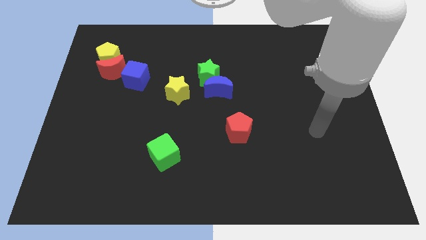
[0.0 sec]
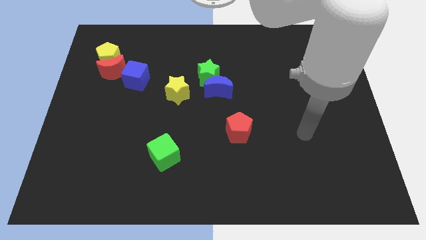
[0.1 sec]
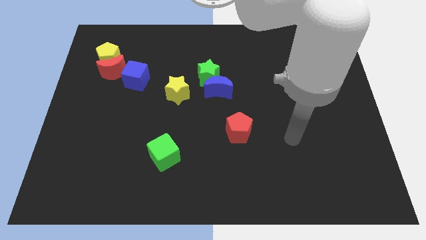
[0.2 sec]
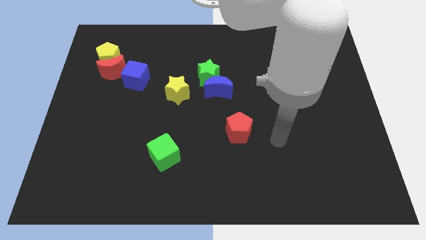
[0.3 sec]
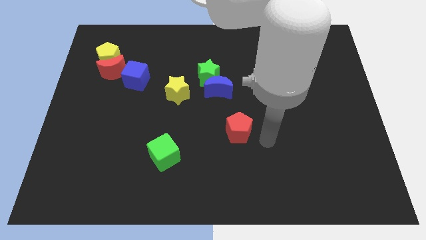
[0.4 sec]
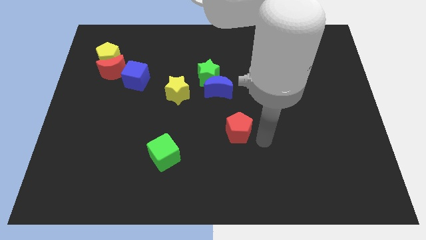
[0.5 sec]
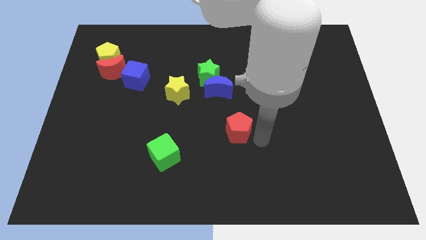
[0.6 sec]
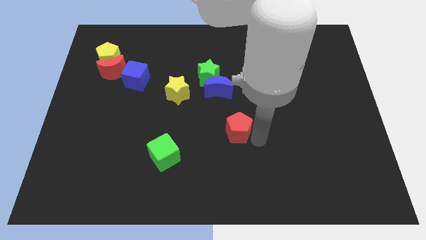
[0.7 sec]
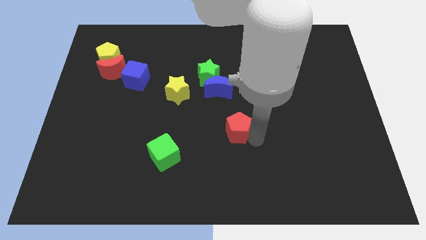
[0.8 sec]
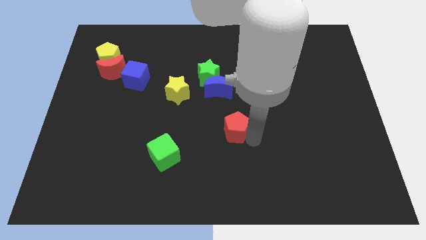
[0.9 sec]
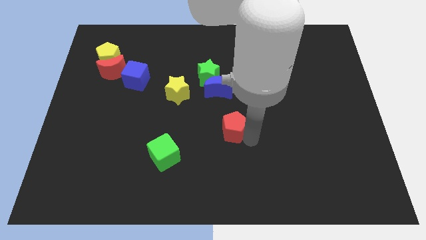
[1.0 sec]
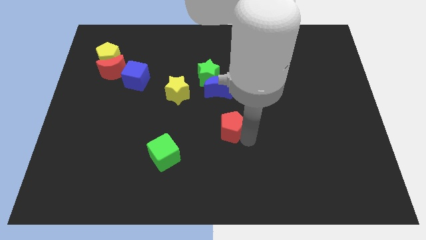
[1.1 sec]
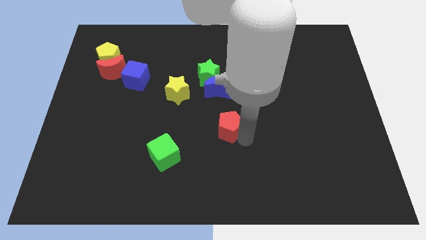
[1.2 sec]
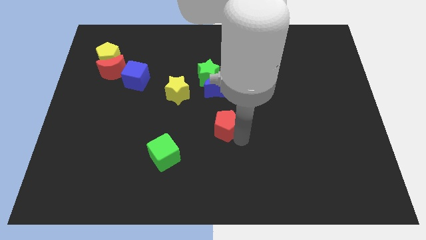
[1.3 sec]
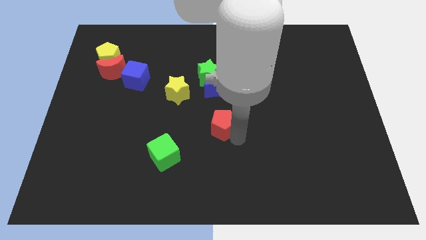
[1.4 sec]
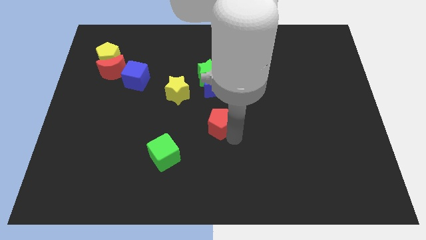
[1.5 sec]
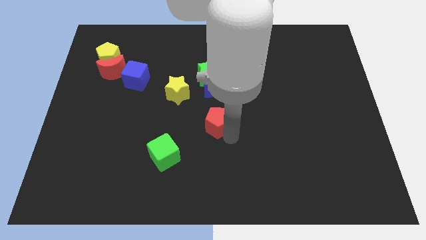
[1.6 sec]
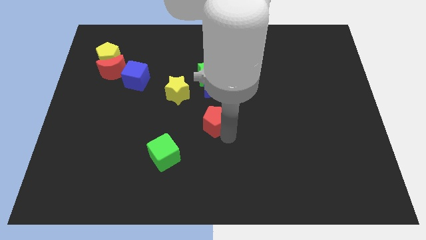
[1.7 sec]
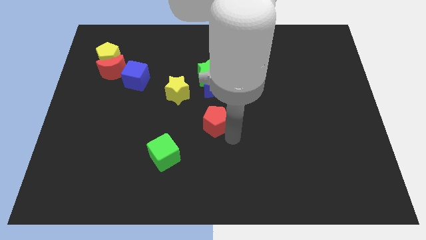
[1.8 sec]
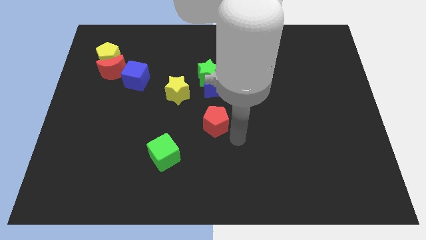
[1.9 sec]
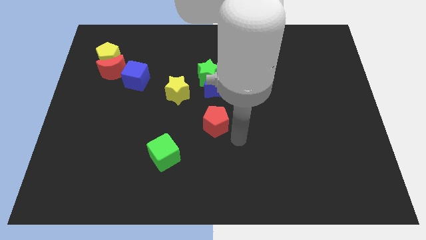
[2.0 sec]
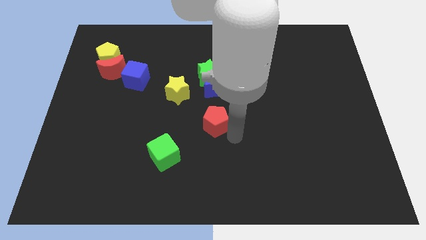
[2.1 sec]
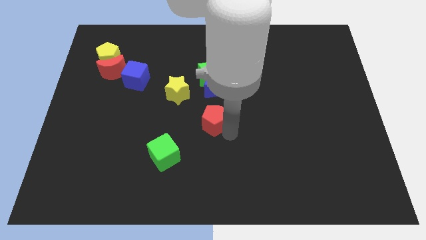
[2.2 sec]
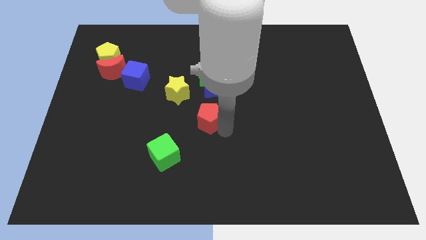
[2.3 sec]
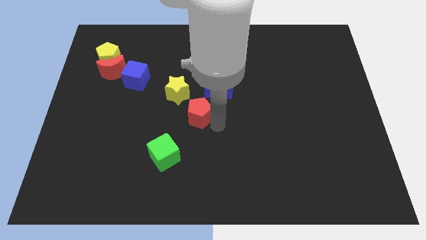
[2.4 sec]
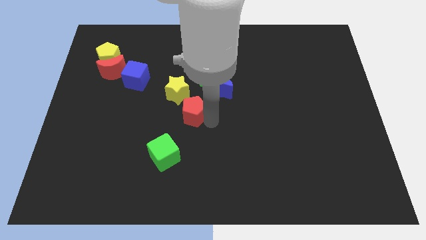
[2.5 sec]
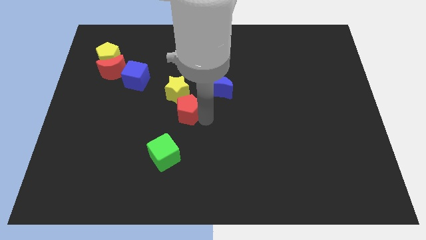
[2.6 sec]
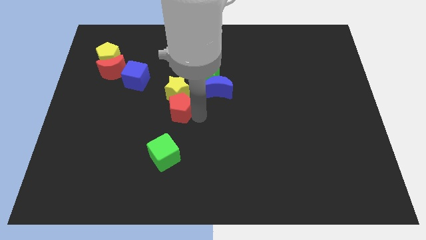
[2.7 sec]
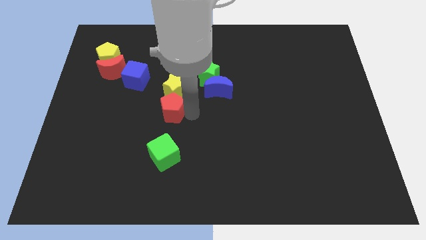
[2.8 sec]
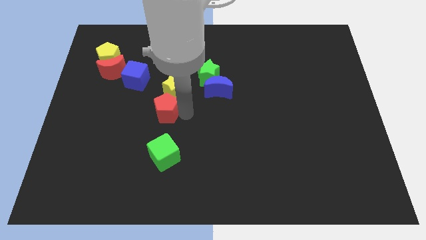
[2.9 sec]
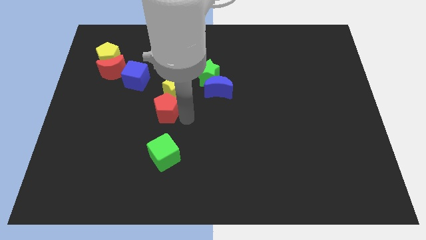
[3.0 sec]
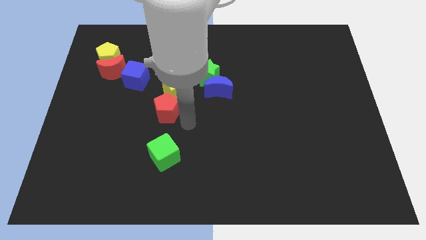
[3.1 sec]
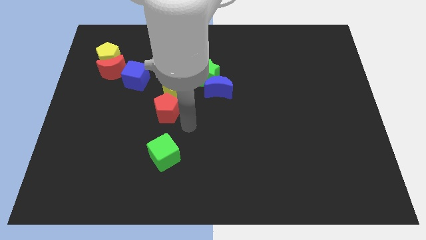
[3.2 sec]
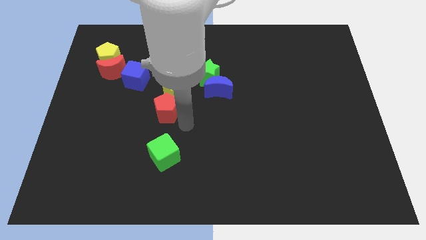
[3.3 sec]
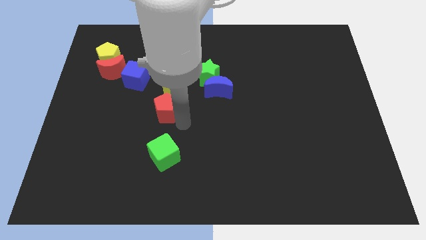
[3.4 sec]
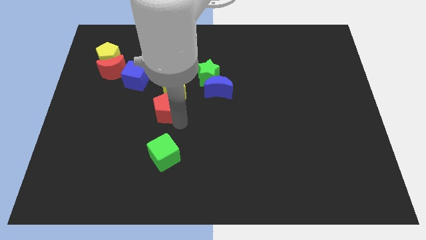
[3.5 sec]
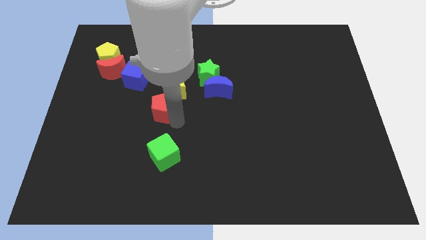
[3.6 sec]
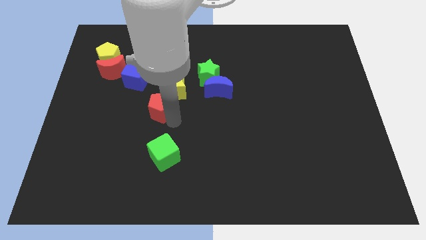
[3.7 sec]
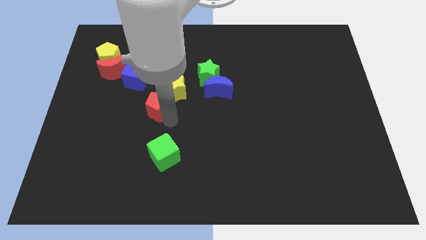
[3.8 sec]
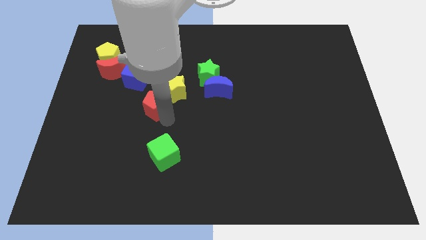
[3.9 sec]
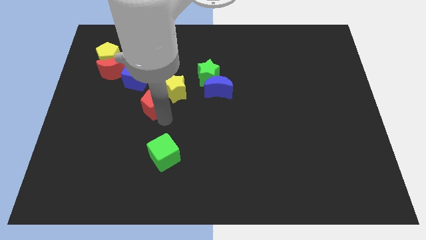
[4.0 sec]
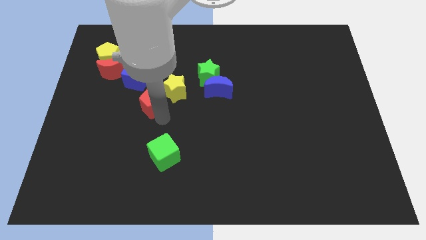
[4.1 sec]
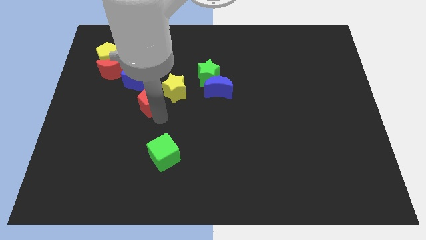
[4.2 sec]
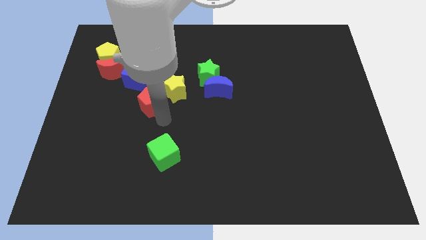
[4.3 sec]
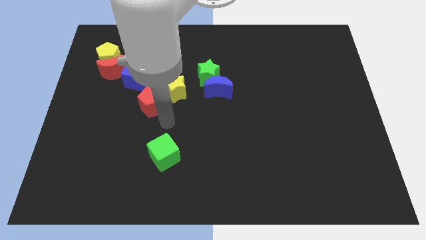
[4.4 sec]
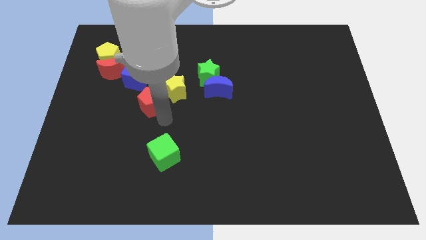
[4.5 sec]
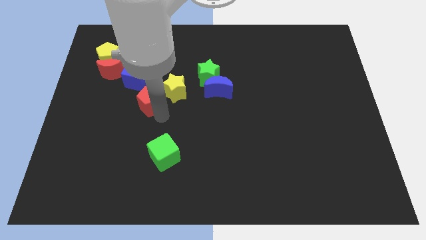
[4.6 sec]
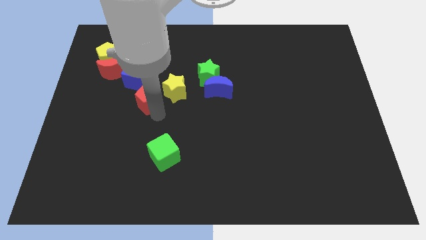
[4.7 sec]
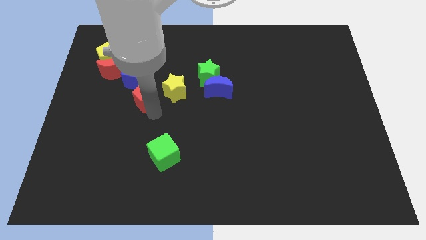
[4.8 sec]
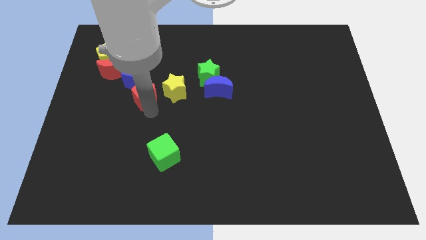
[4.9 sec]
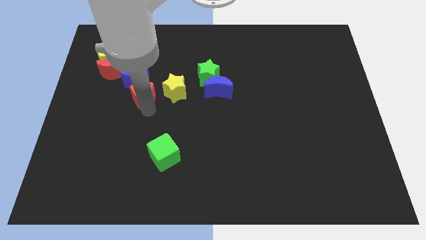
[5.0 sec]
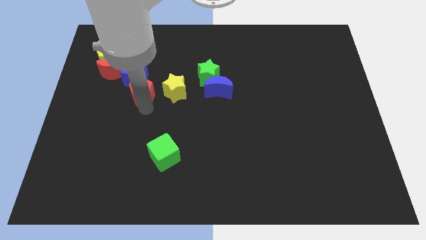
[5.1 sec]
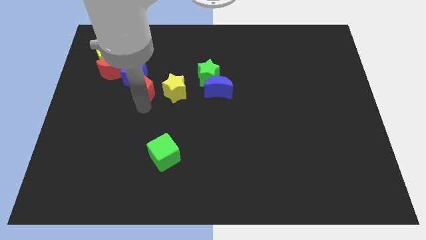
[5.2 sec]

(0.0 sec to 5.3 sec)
move the red pentagon next to the blue cube

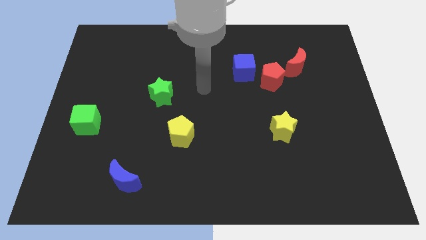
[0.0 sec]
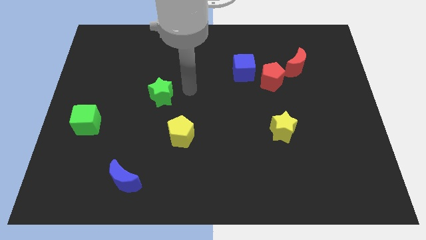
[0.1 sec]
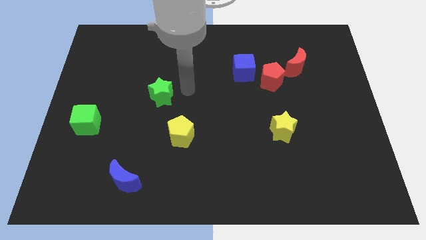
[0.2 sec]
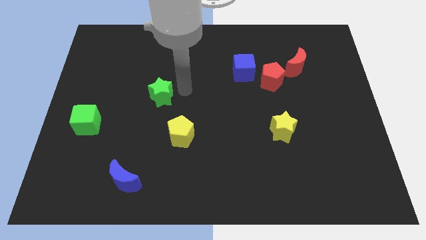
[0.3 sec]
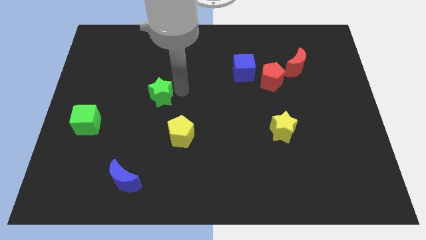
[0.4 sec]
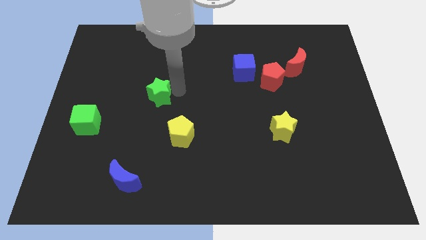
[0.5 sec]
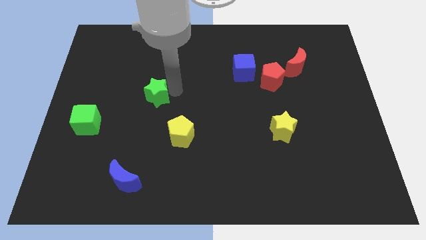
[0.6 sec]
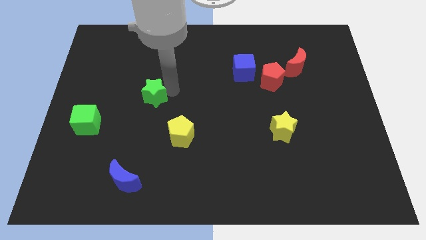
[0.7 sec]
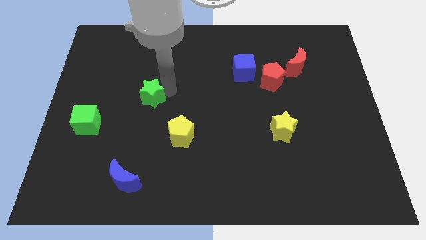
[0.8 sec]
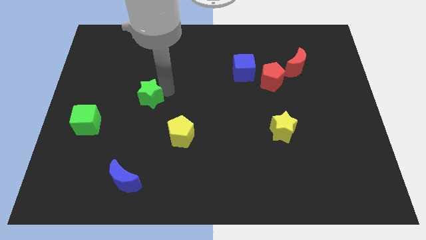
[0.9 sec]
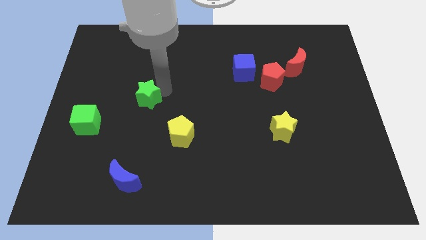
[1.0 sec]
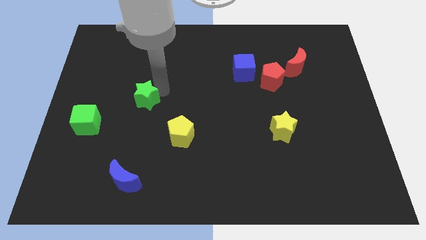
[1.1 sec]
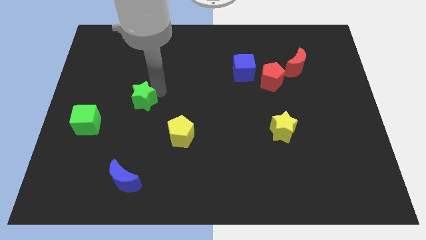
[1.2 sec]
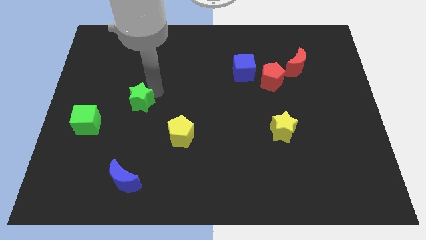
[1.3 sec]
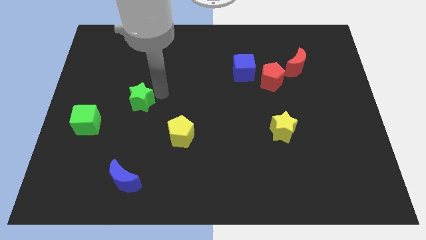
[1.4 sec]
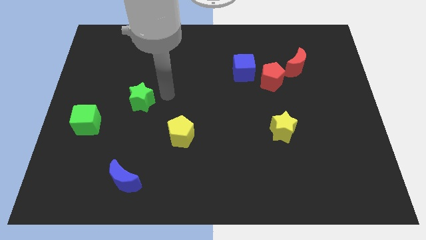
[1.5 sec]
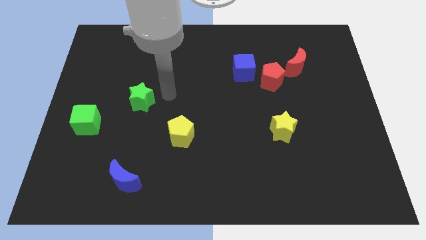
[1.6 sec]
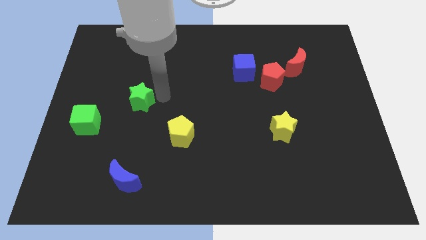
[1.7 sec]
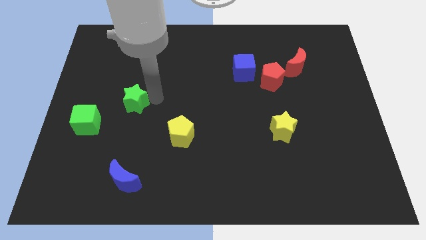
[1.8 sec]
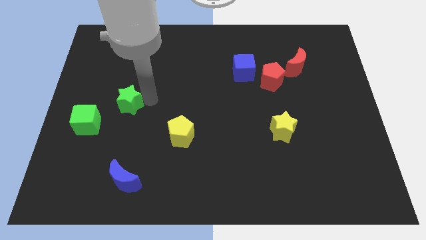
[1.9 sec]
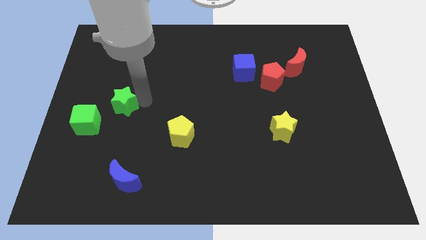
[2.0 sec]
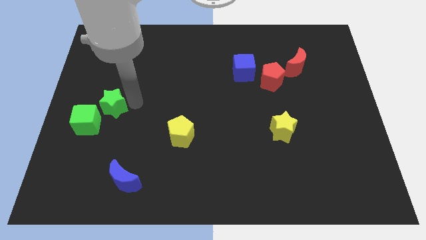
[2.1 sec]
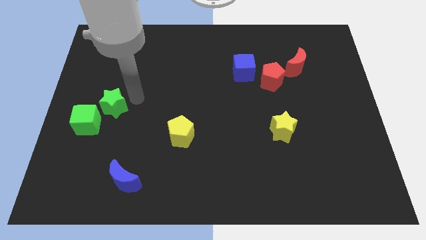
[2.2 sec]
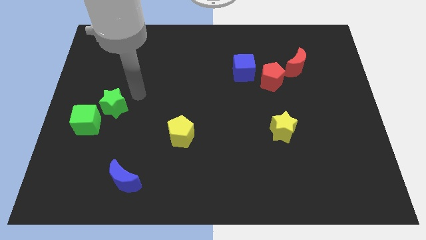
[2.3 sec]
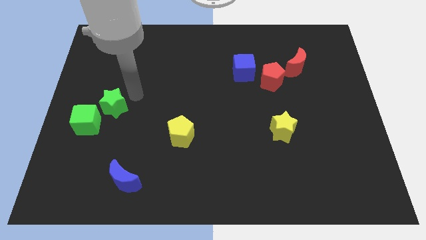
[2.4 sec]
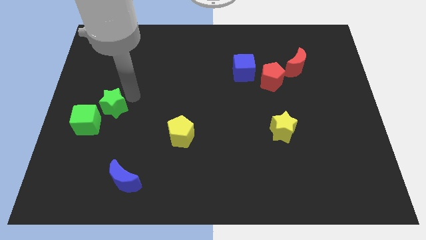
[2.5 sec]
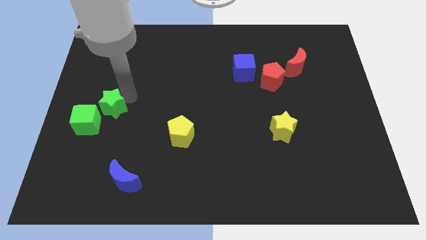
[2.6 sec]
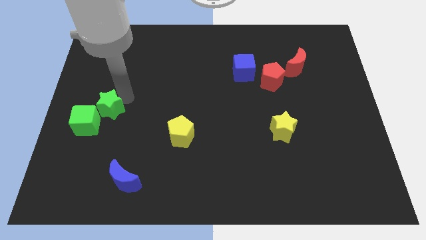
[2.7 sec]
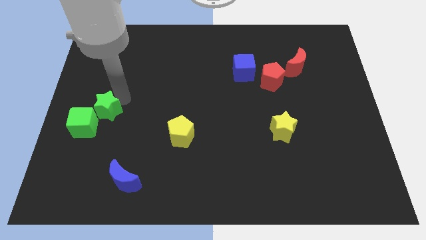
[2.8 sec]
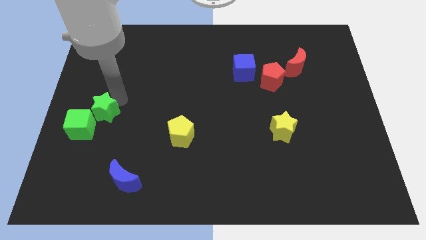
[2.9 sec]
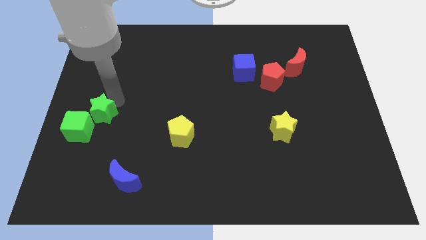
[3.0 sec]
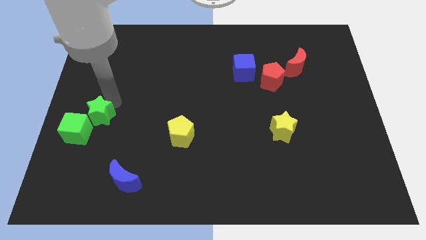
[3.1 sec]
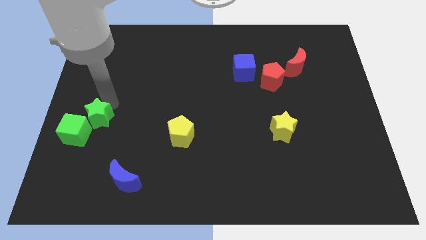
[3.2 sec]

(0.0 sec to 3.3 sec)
slide the green star next to the green cube
